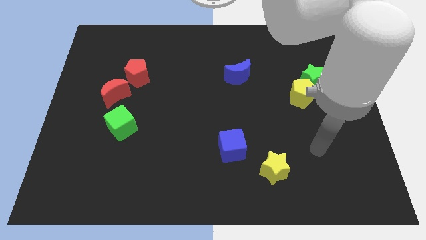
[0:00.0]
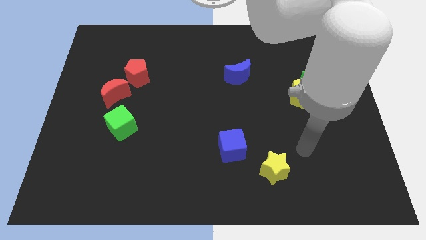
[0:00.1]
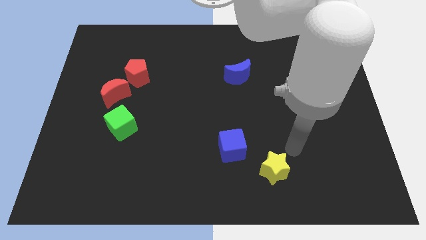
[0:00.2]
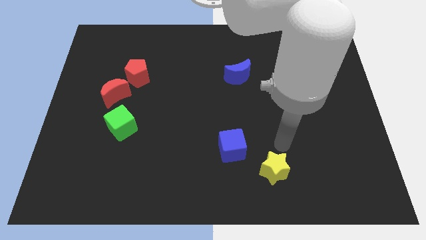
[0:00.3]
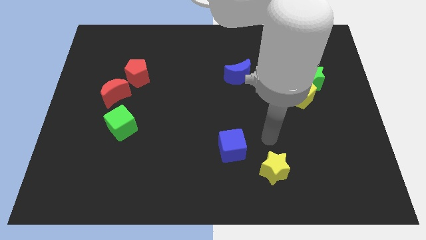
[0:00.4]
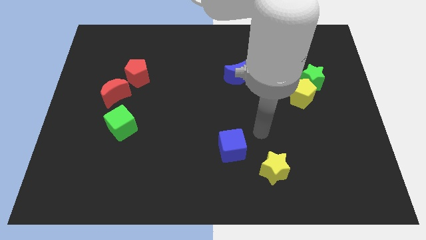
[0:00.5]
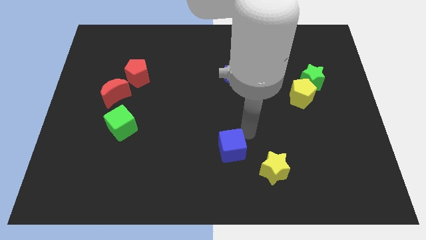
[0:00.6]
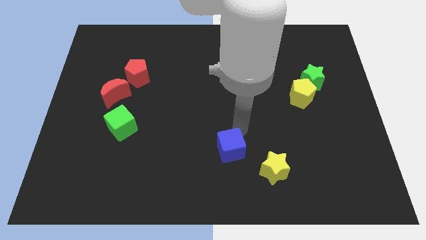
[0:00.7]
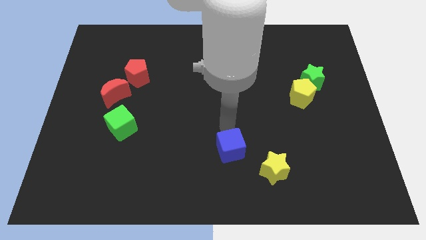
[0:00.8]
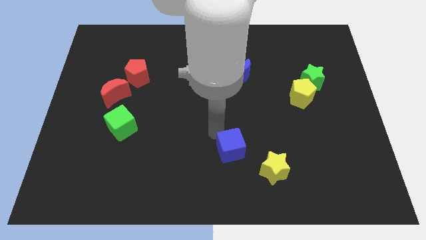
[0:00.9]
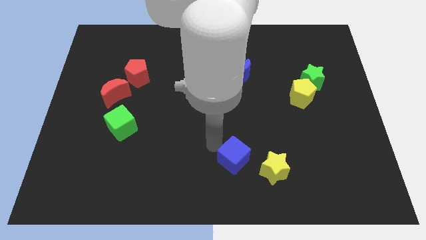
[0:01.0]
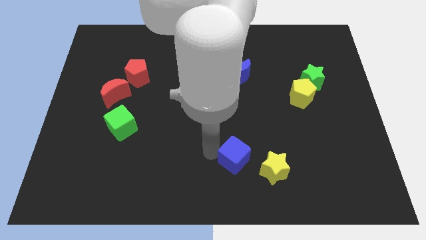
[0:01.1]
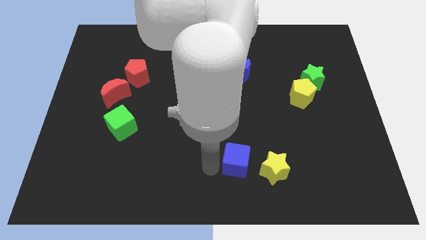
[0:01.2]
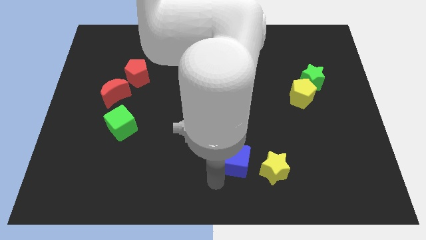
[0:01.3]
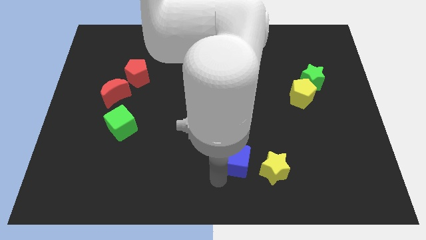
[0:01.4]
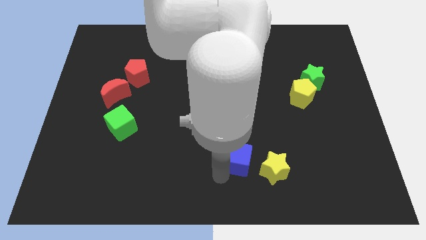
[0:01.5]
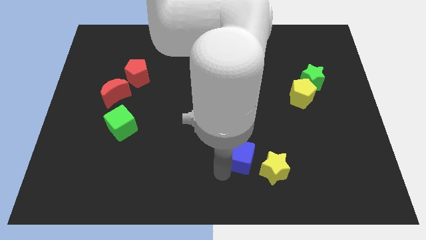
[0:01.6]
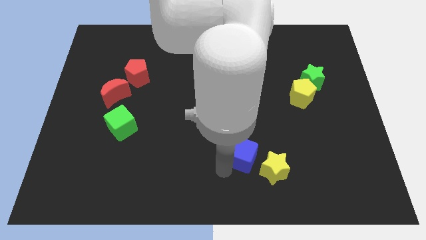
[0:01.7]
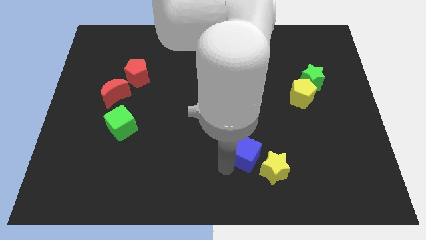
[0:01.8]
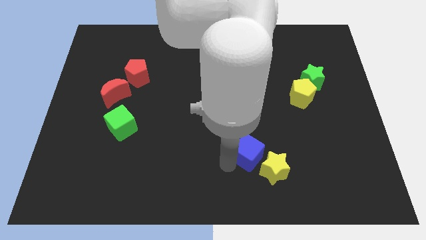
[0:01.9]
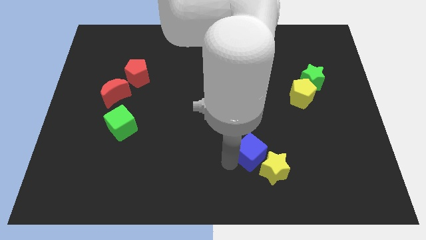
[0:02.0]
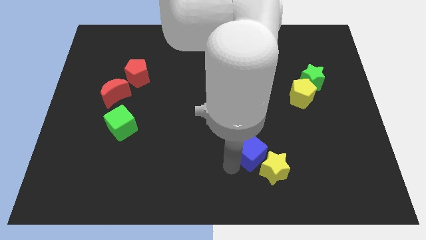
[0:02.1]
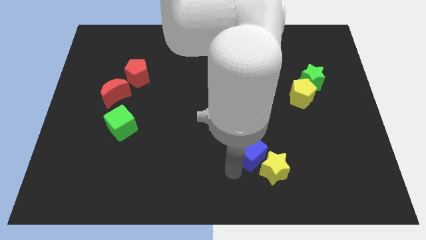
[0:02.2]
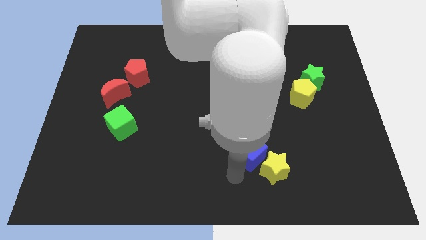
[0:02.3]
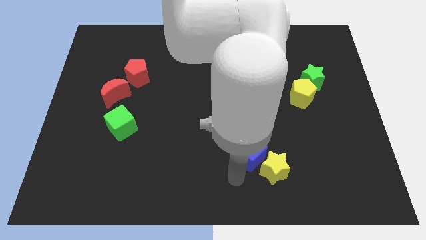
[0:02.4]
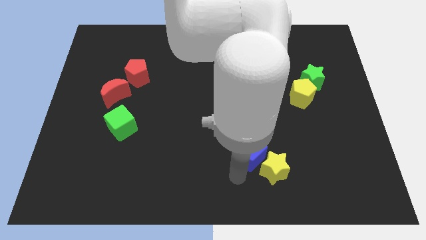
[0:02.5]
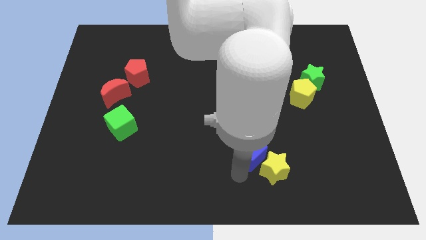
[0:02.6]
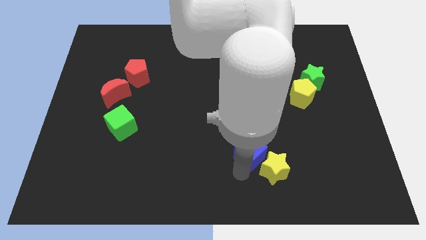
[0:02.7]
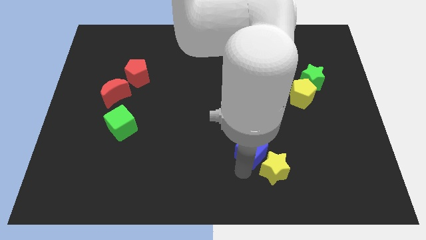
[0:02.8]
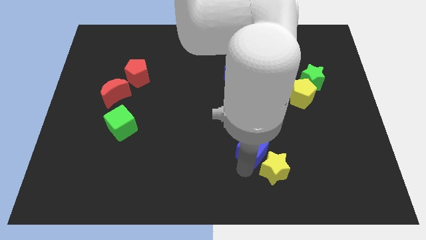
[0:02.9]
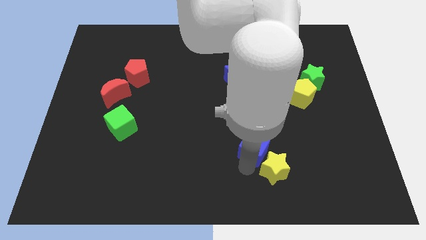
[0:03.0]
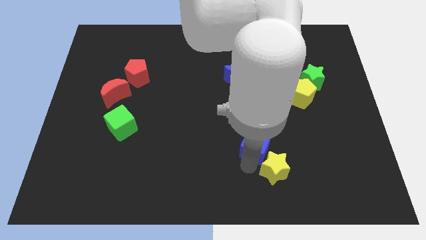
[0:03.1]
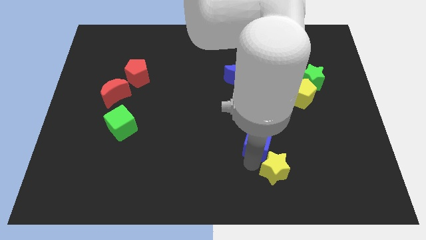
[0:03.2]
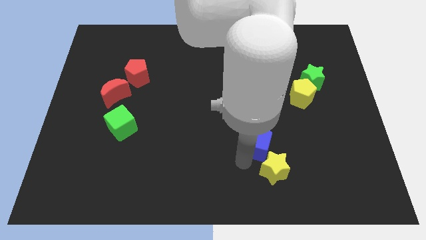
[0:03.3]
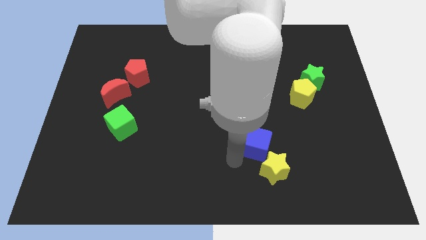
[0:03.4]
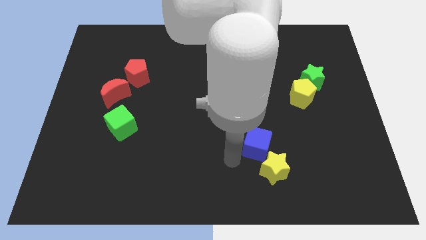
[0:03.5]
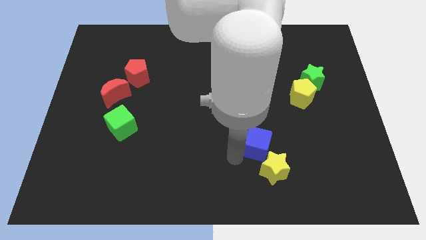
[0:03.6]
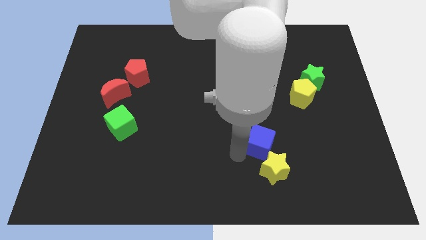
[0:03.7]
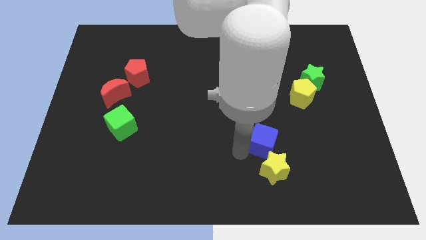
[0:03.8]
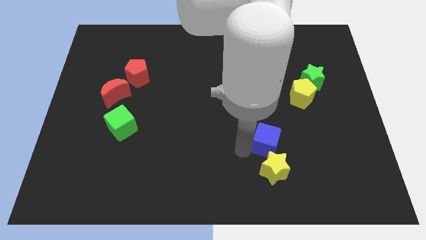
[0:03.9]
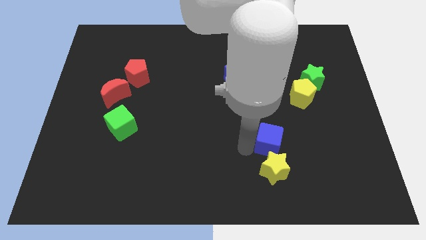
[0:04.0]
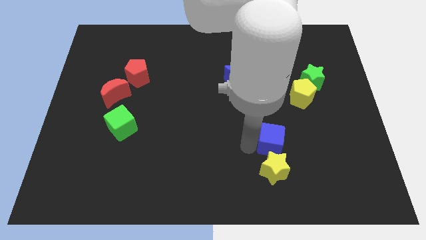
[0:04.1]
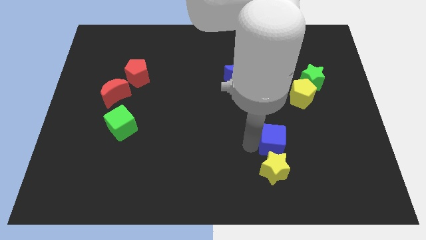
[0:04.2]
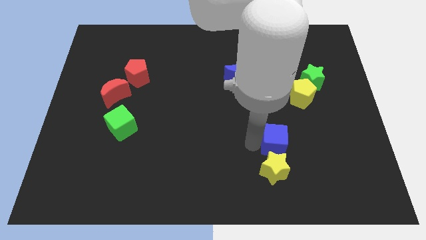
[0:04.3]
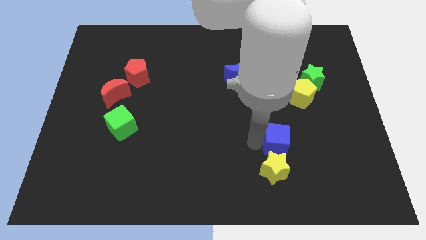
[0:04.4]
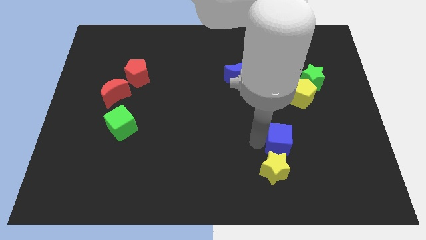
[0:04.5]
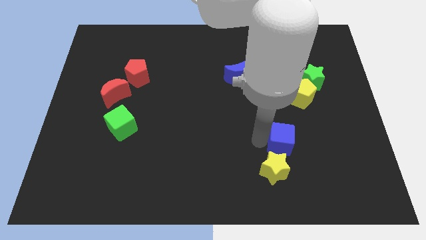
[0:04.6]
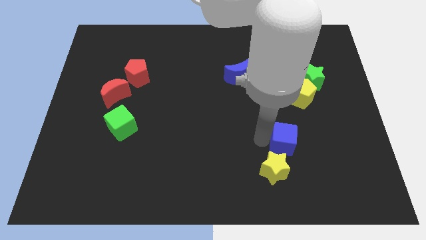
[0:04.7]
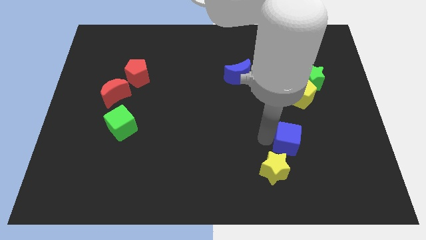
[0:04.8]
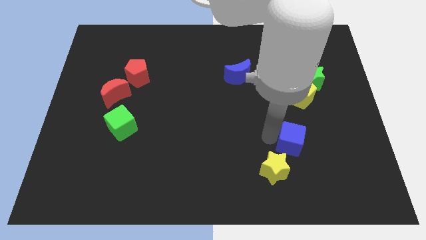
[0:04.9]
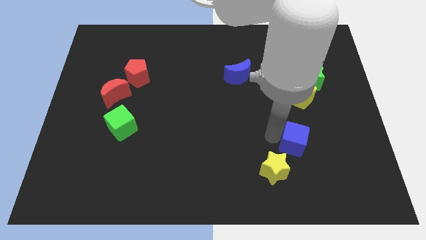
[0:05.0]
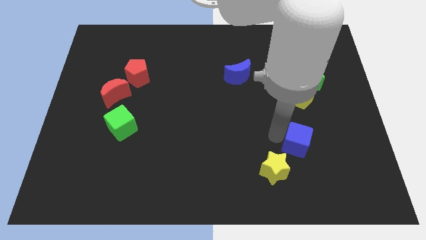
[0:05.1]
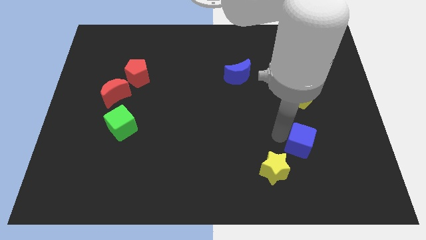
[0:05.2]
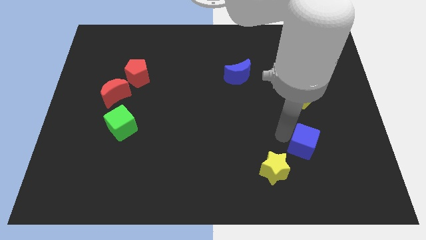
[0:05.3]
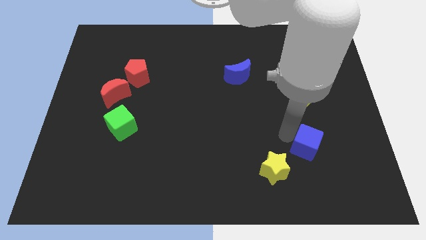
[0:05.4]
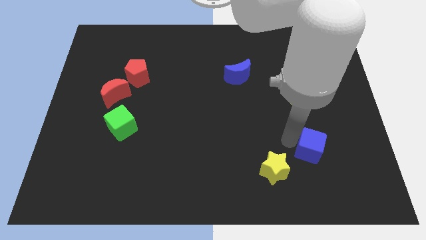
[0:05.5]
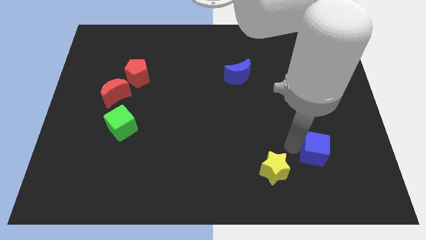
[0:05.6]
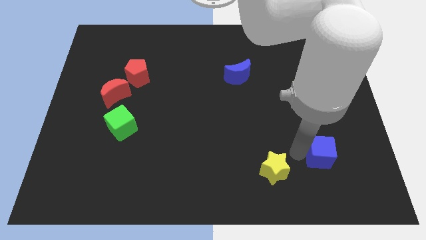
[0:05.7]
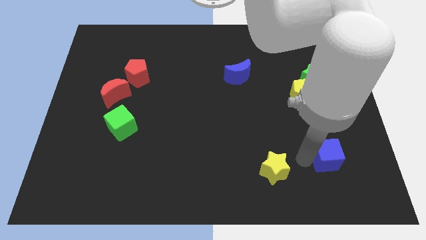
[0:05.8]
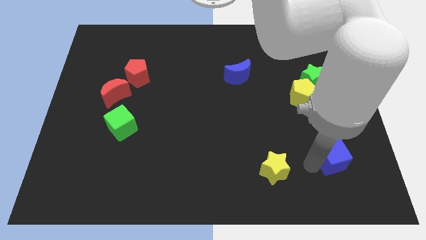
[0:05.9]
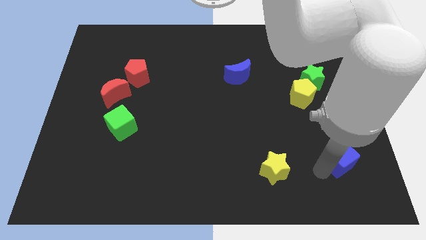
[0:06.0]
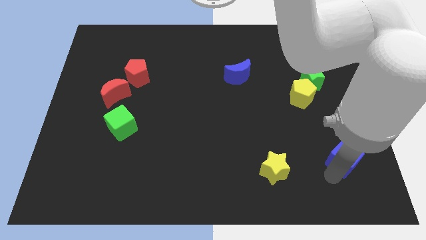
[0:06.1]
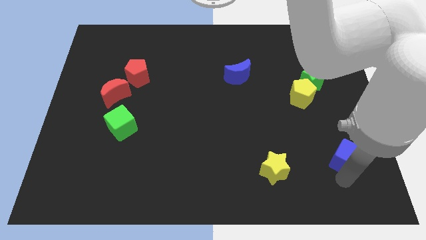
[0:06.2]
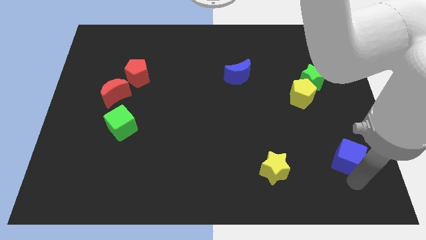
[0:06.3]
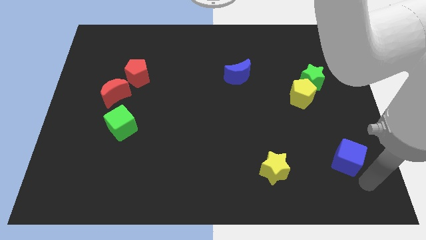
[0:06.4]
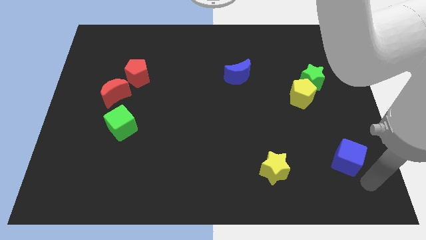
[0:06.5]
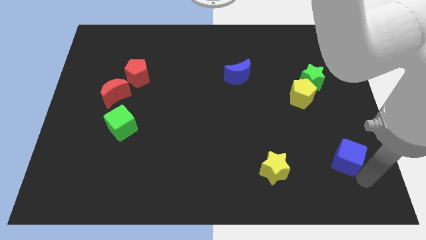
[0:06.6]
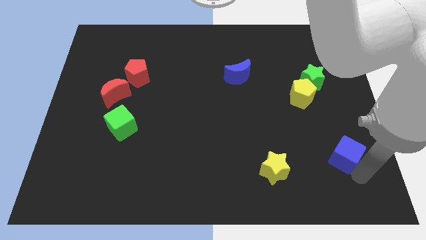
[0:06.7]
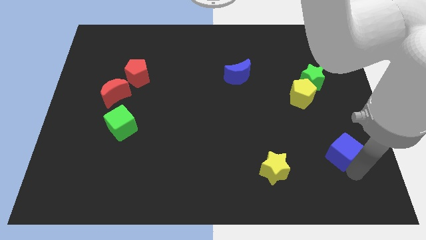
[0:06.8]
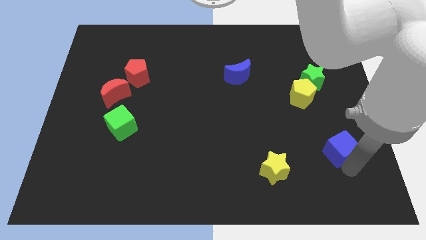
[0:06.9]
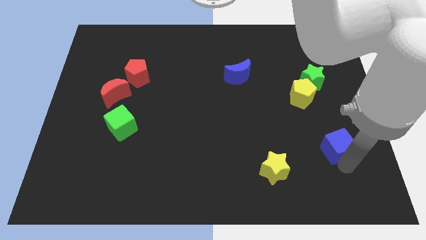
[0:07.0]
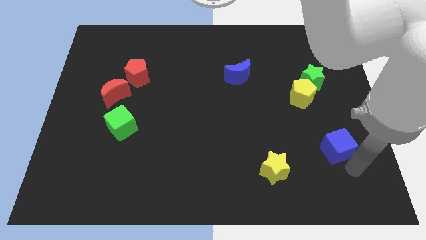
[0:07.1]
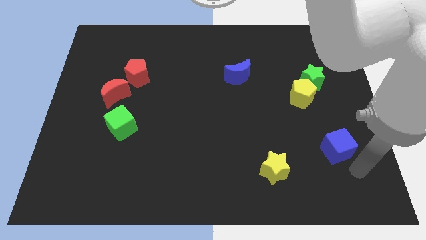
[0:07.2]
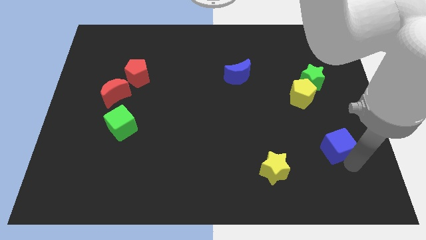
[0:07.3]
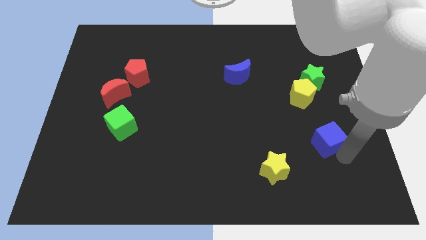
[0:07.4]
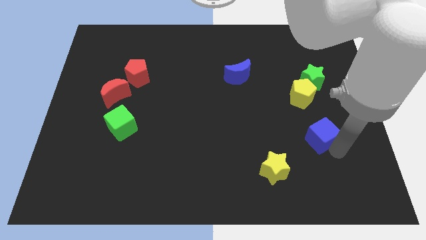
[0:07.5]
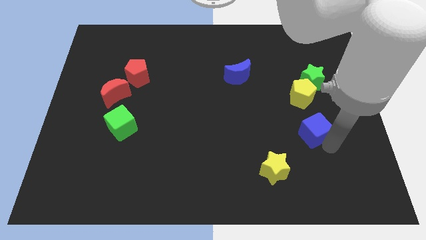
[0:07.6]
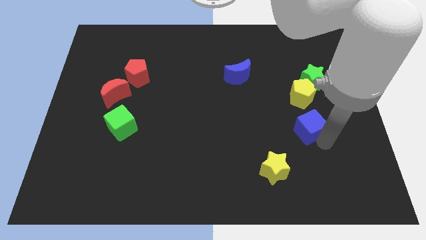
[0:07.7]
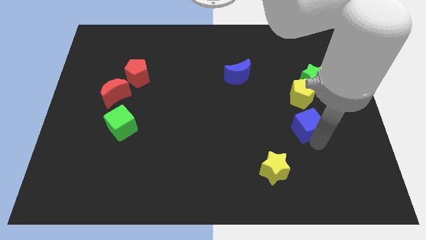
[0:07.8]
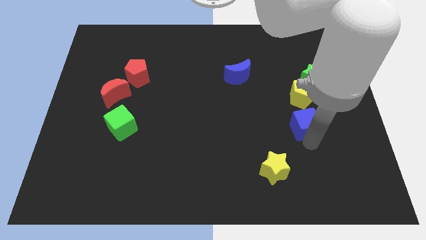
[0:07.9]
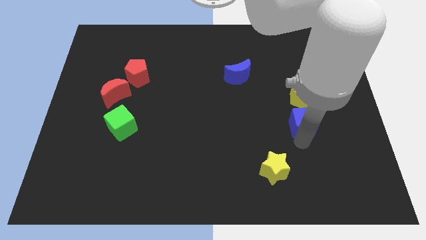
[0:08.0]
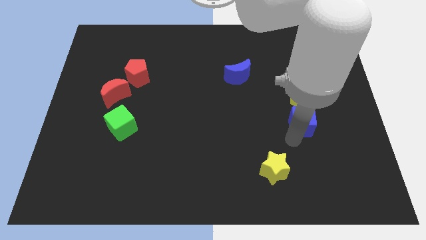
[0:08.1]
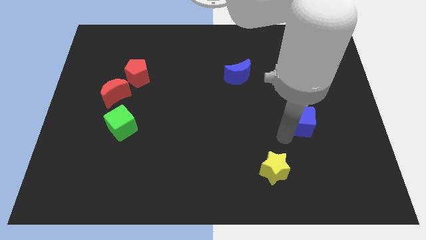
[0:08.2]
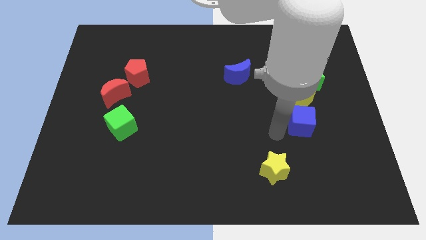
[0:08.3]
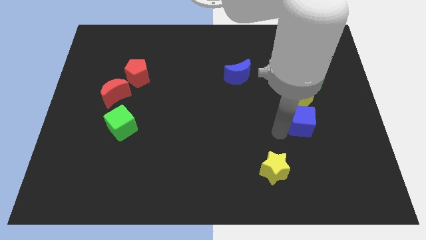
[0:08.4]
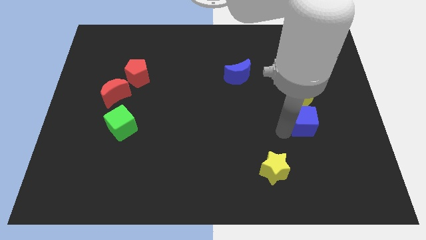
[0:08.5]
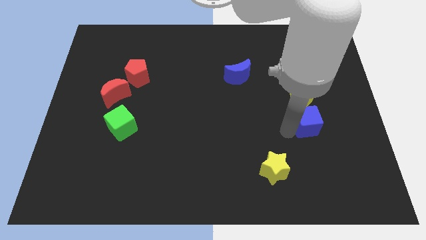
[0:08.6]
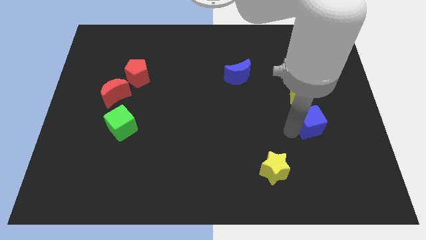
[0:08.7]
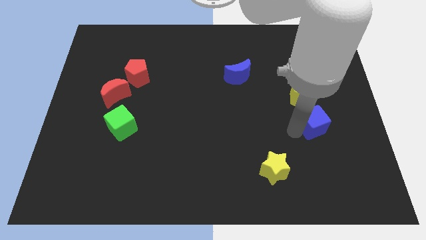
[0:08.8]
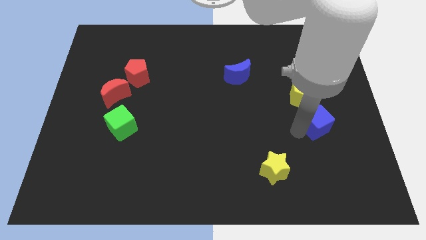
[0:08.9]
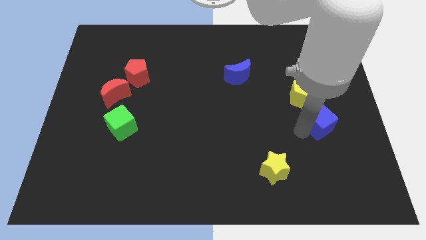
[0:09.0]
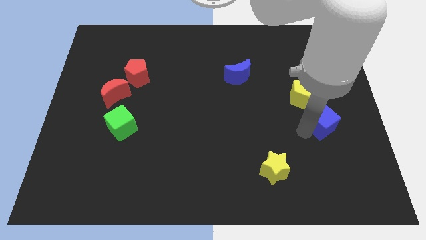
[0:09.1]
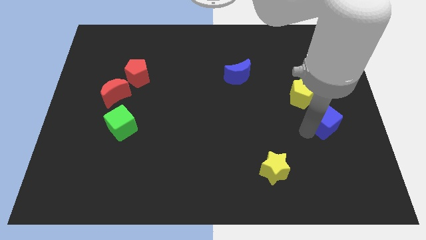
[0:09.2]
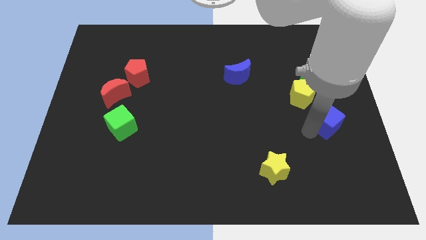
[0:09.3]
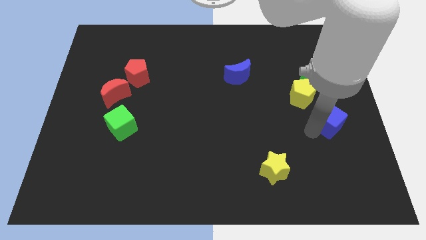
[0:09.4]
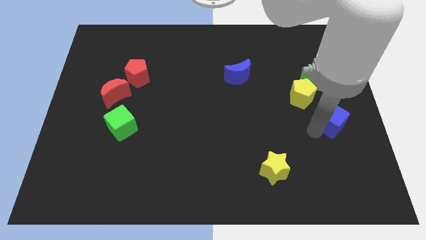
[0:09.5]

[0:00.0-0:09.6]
slide the blue cube to the right side
